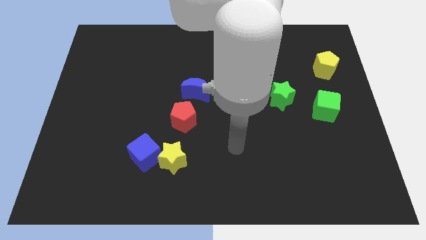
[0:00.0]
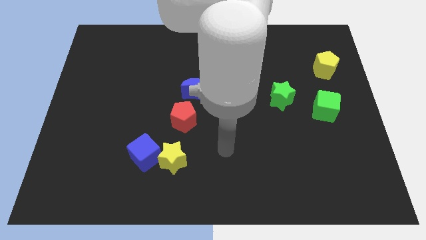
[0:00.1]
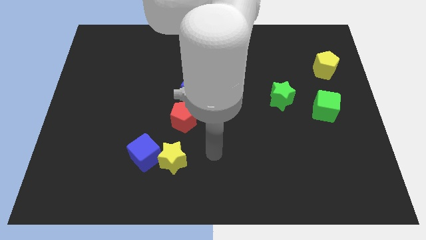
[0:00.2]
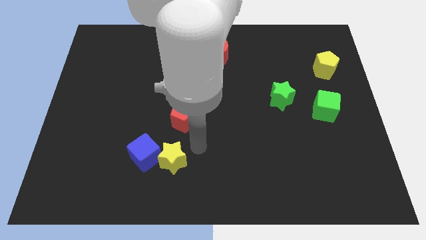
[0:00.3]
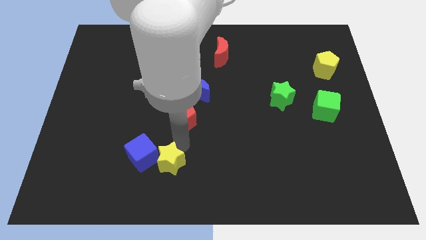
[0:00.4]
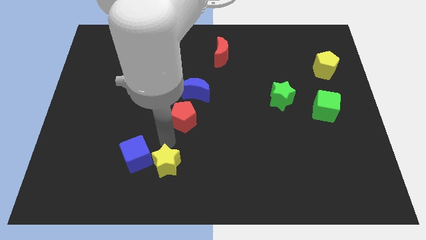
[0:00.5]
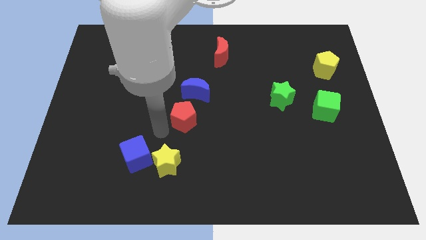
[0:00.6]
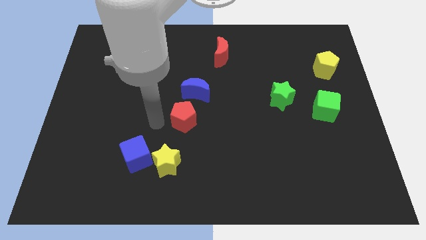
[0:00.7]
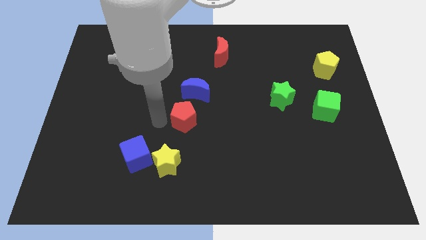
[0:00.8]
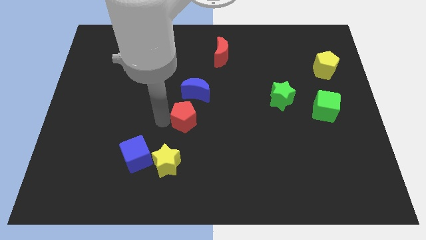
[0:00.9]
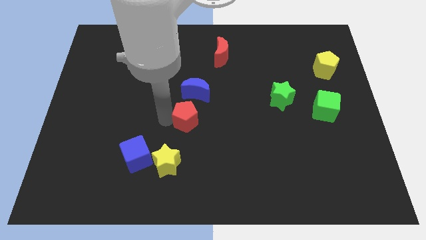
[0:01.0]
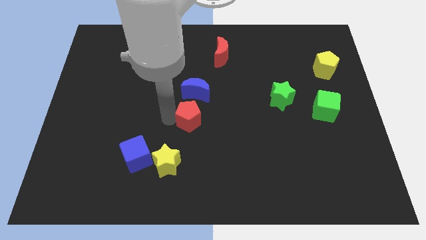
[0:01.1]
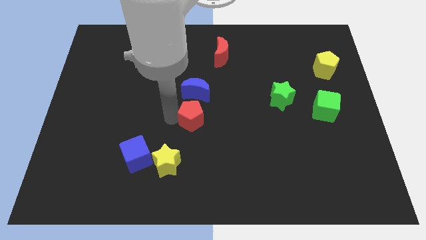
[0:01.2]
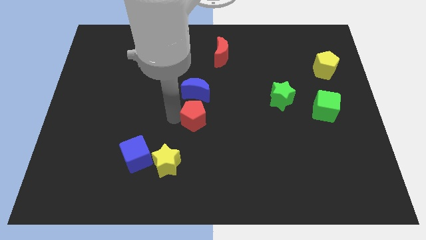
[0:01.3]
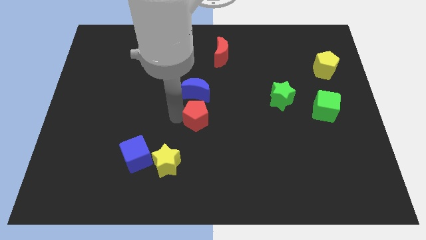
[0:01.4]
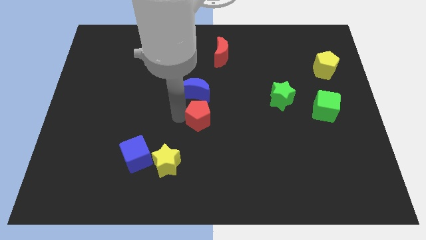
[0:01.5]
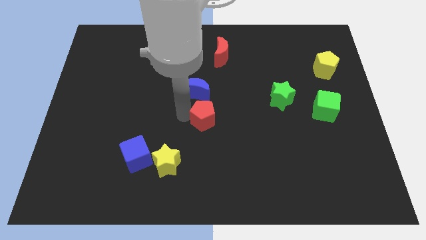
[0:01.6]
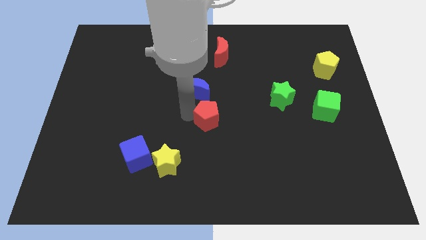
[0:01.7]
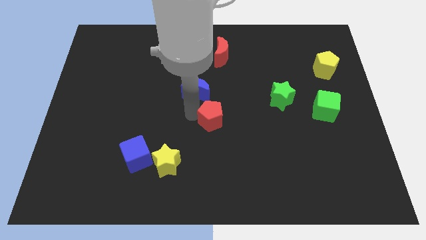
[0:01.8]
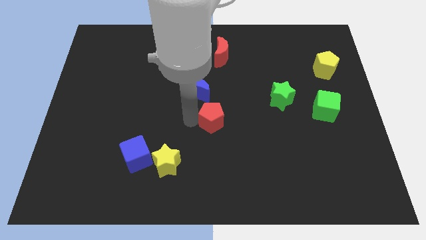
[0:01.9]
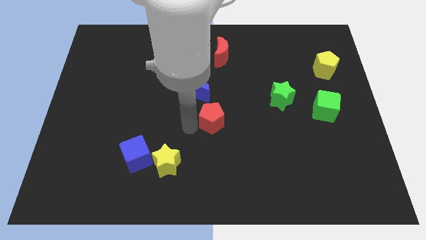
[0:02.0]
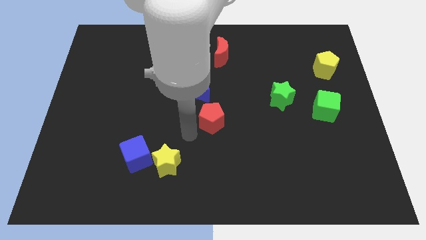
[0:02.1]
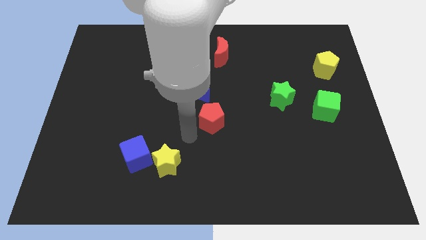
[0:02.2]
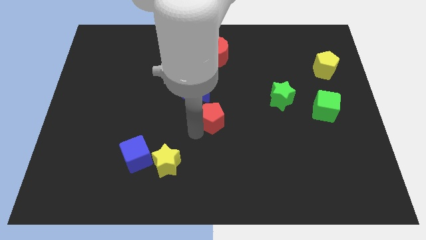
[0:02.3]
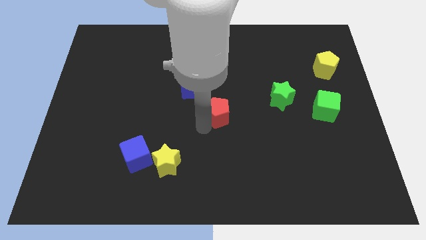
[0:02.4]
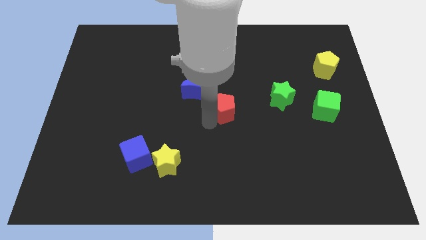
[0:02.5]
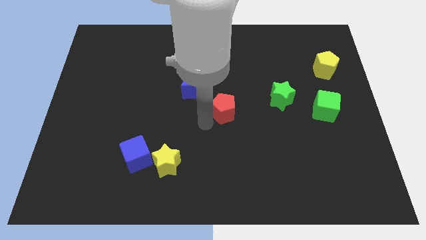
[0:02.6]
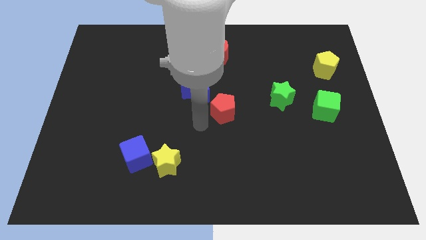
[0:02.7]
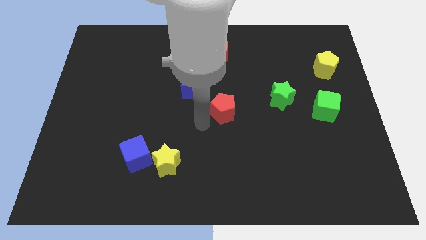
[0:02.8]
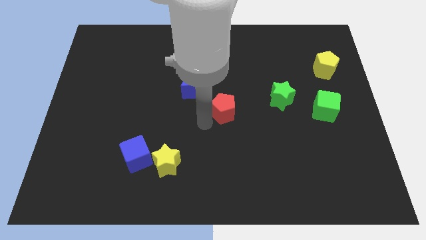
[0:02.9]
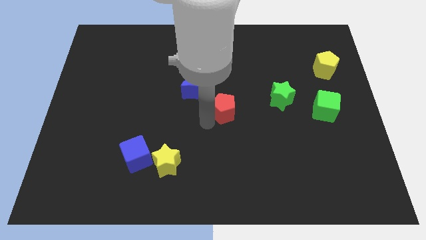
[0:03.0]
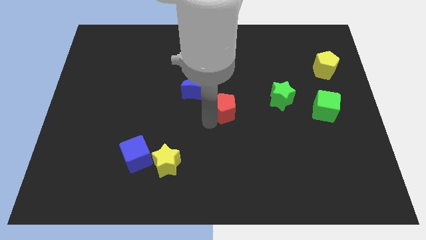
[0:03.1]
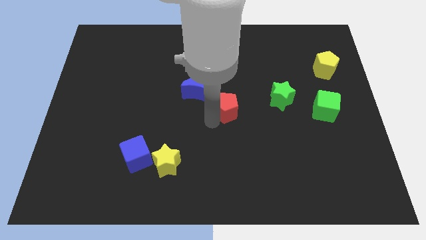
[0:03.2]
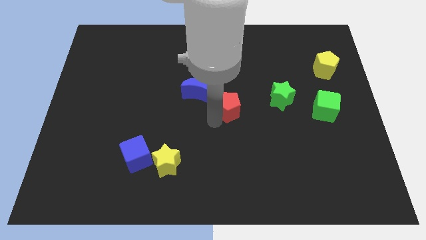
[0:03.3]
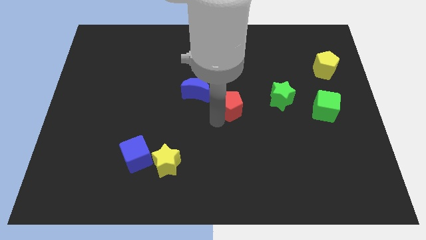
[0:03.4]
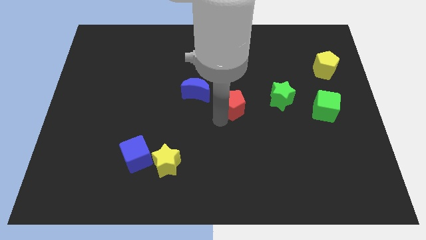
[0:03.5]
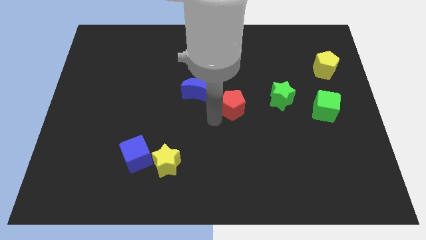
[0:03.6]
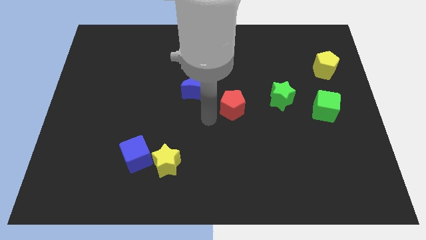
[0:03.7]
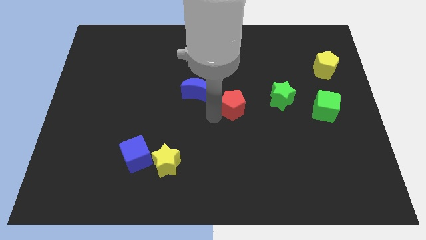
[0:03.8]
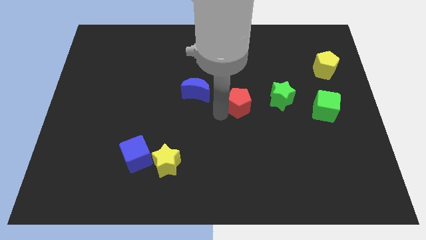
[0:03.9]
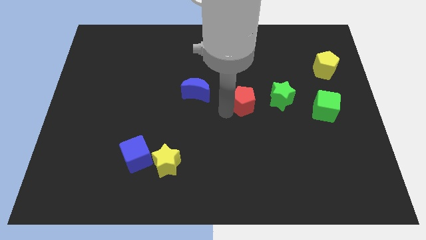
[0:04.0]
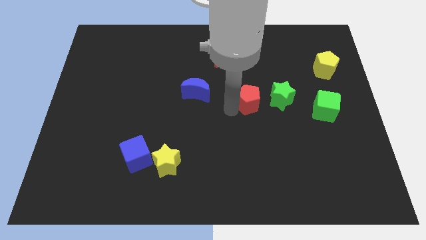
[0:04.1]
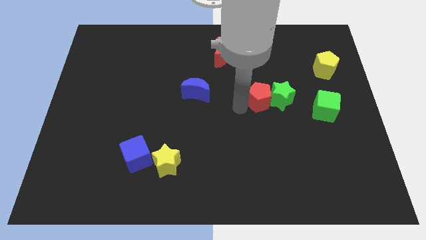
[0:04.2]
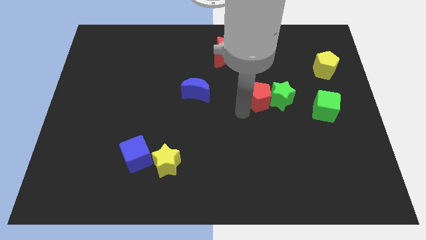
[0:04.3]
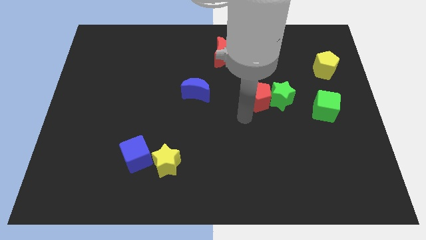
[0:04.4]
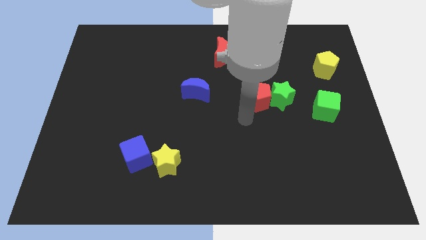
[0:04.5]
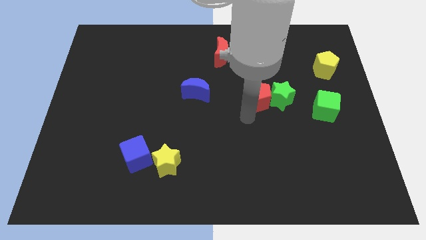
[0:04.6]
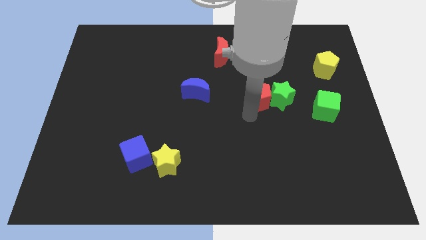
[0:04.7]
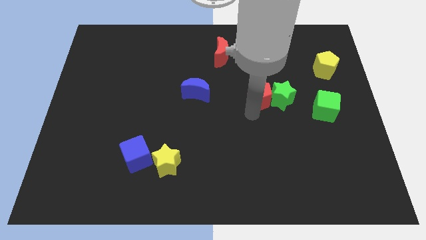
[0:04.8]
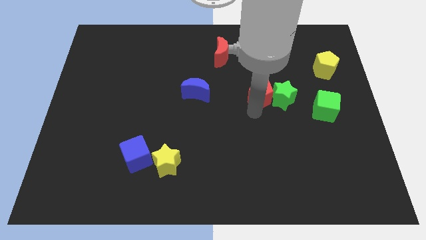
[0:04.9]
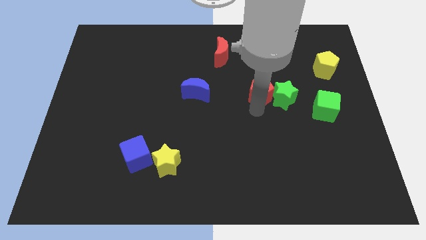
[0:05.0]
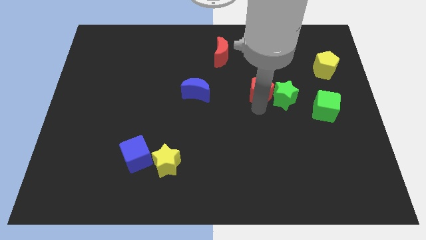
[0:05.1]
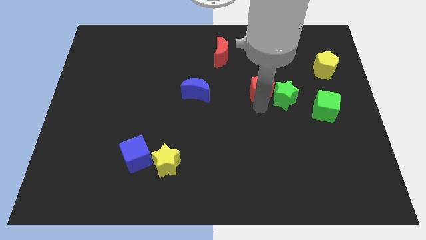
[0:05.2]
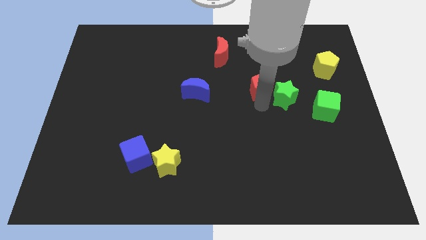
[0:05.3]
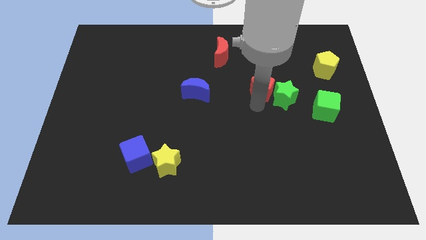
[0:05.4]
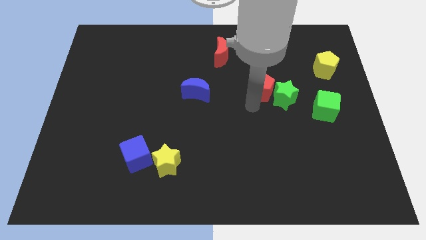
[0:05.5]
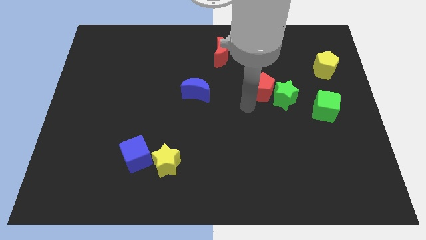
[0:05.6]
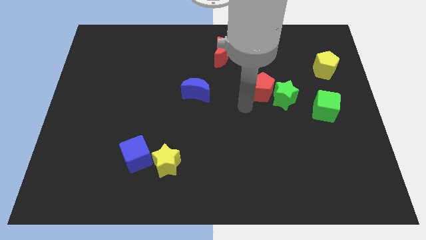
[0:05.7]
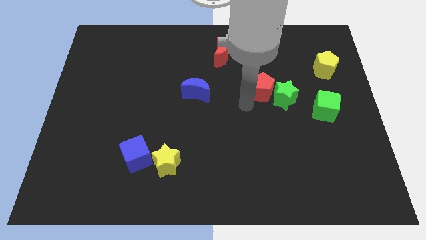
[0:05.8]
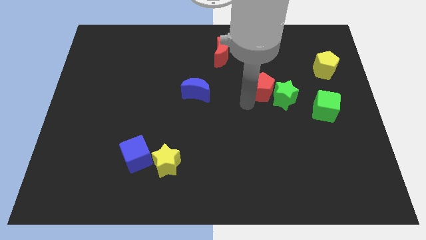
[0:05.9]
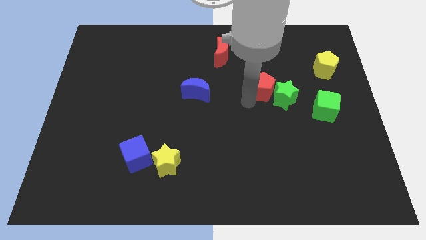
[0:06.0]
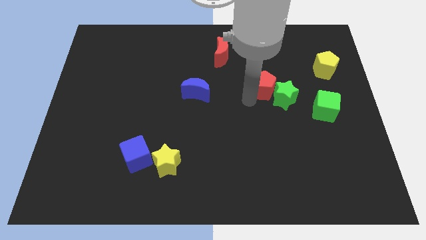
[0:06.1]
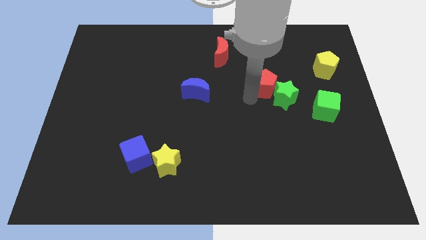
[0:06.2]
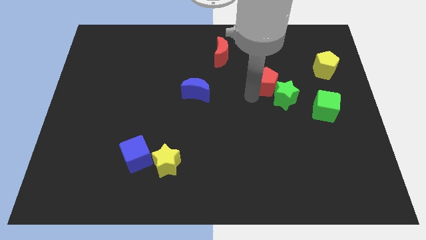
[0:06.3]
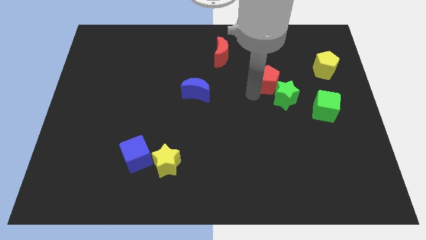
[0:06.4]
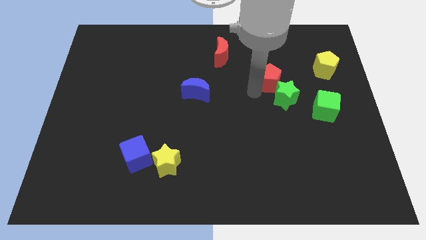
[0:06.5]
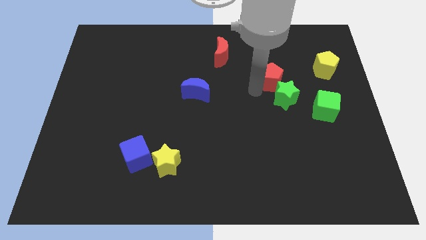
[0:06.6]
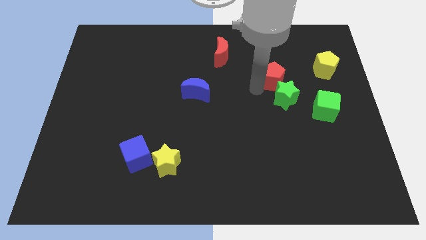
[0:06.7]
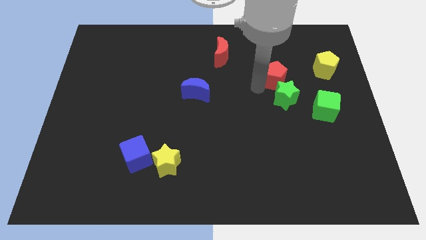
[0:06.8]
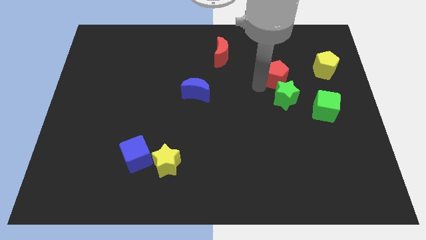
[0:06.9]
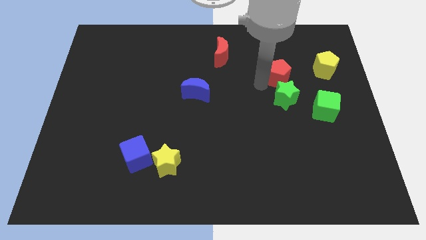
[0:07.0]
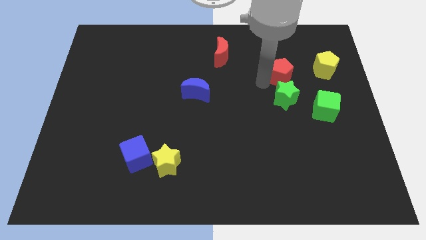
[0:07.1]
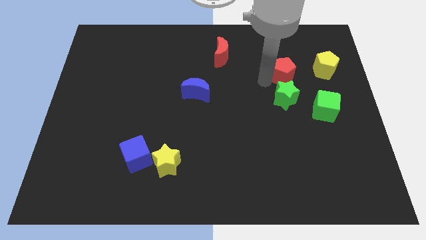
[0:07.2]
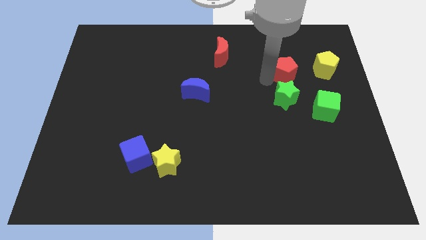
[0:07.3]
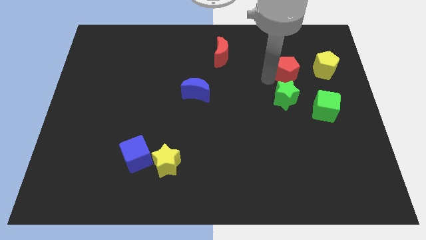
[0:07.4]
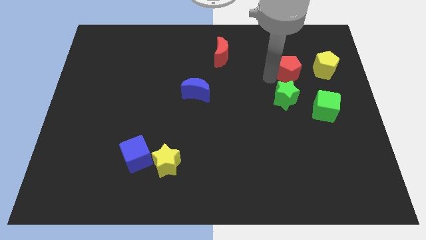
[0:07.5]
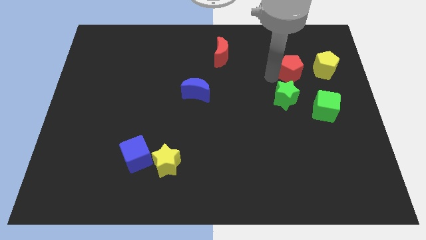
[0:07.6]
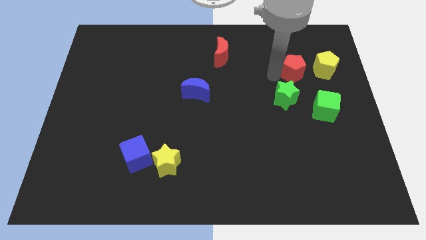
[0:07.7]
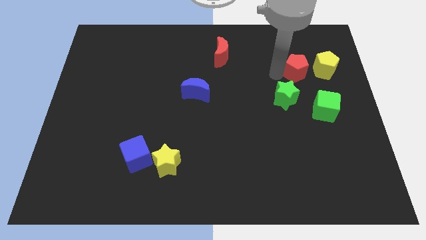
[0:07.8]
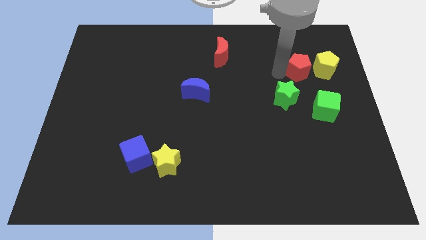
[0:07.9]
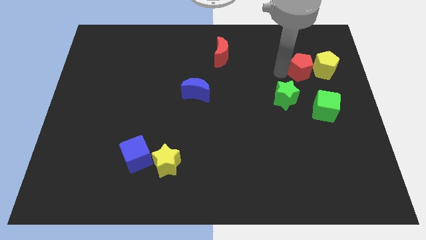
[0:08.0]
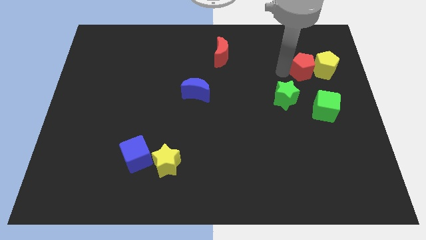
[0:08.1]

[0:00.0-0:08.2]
move the red pentagon next to the yellow pentagon
